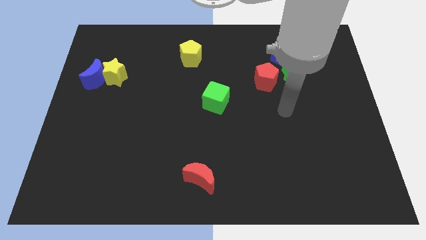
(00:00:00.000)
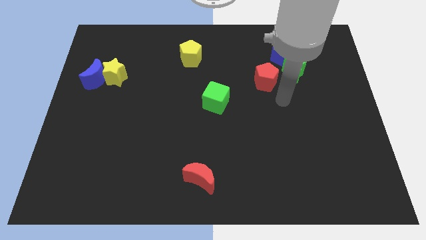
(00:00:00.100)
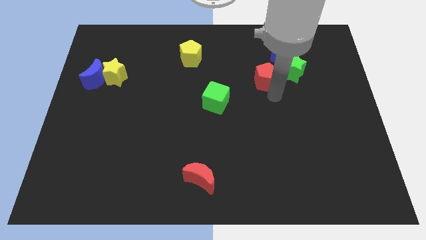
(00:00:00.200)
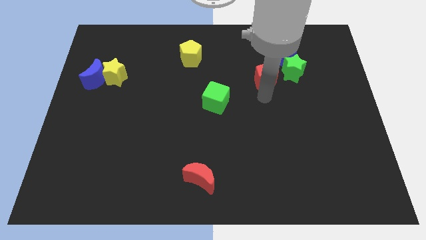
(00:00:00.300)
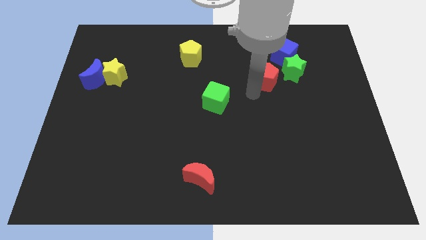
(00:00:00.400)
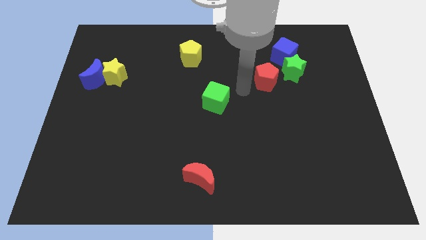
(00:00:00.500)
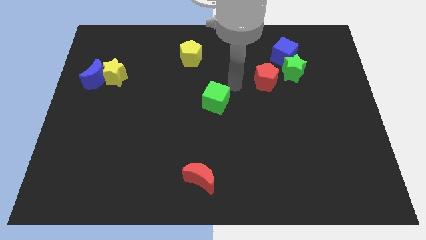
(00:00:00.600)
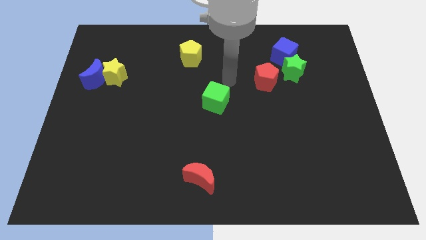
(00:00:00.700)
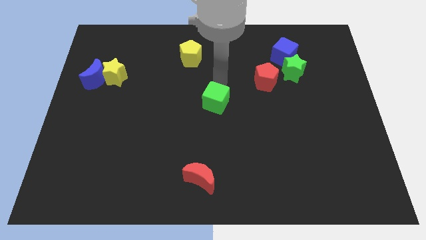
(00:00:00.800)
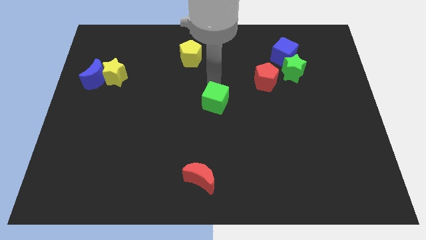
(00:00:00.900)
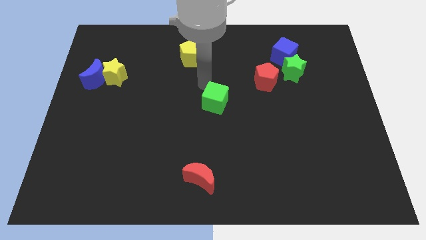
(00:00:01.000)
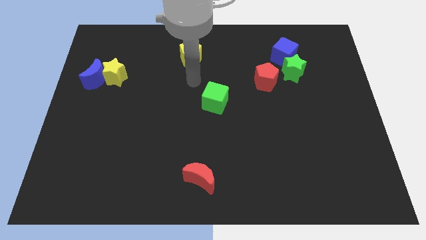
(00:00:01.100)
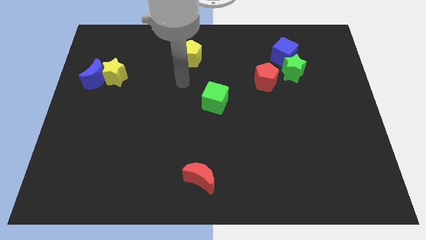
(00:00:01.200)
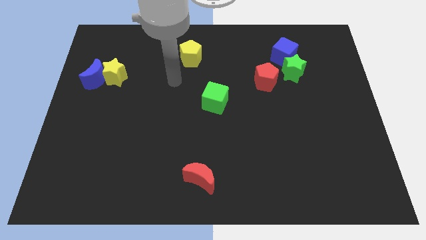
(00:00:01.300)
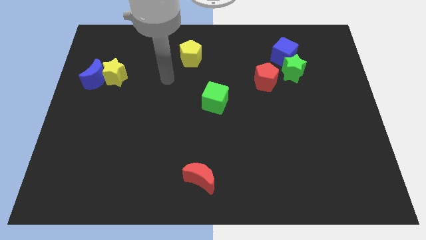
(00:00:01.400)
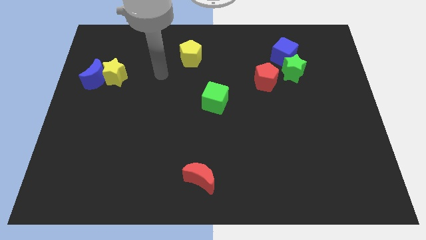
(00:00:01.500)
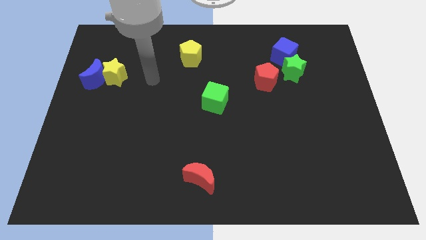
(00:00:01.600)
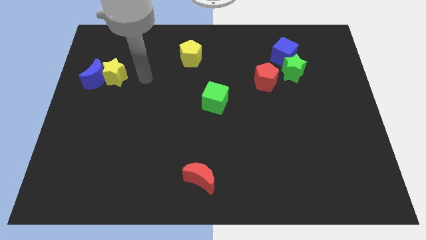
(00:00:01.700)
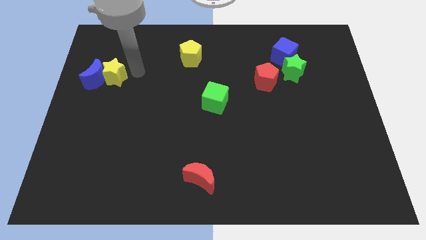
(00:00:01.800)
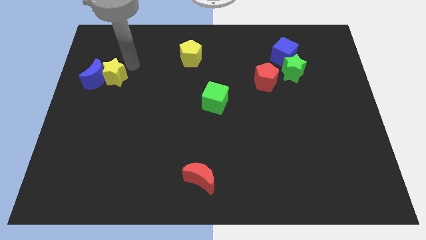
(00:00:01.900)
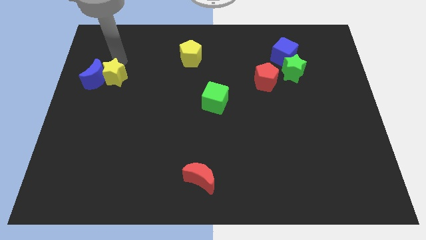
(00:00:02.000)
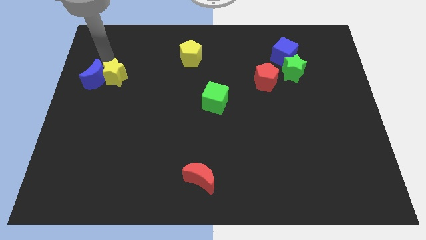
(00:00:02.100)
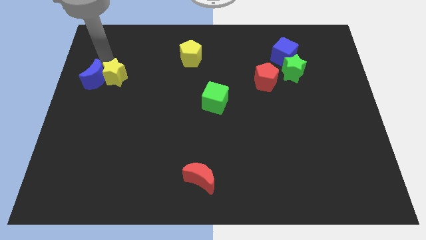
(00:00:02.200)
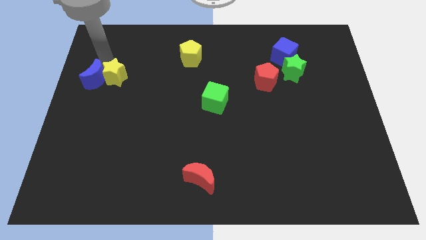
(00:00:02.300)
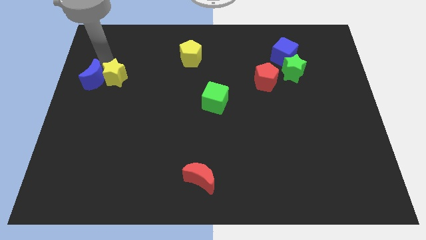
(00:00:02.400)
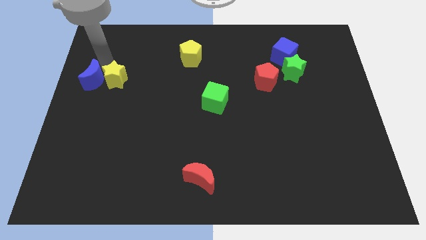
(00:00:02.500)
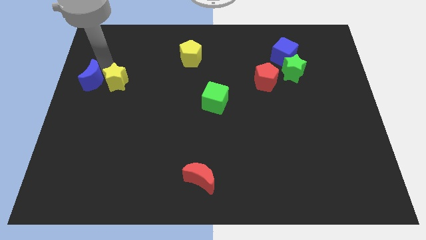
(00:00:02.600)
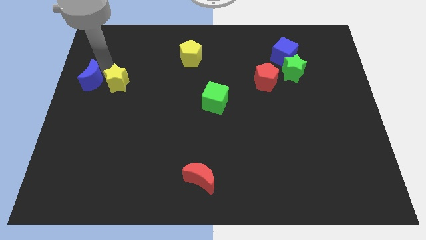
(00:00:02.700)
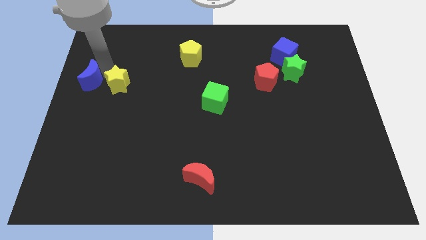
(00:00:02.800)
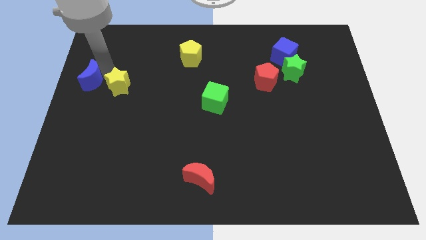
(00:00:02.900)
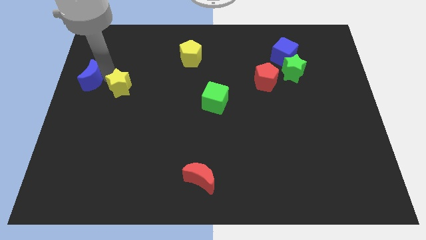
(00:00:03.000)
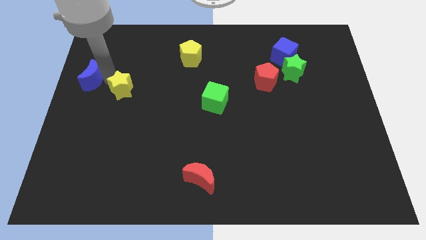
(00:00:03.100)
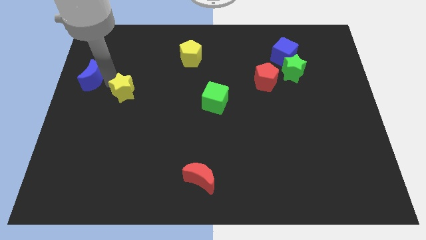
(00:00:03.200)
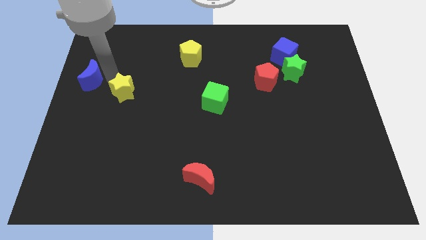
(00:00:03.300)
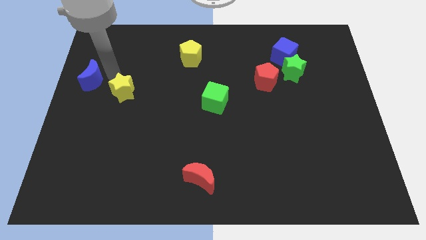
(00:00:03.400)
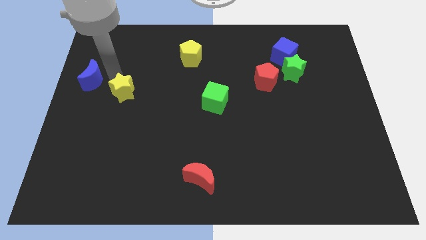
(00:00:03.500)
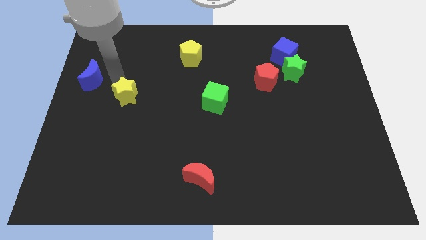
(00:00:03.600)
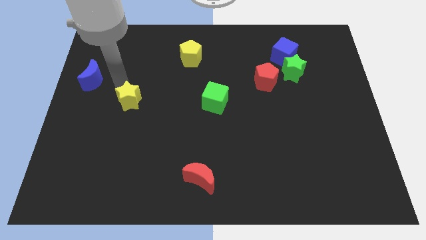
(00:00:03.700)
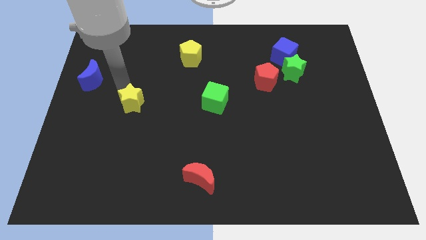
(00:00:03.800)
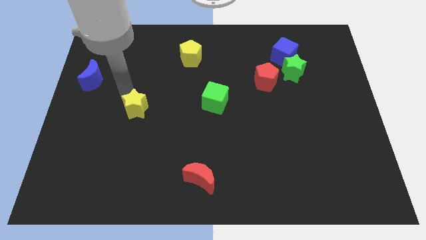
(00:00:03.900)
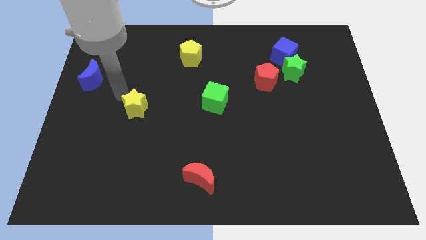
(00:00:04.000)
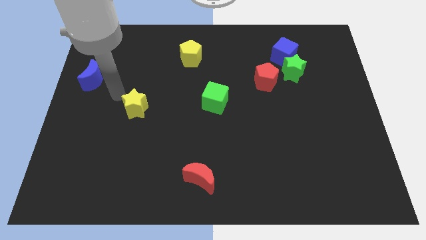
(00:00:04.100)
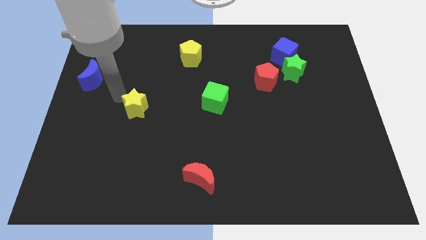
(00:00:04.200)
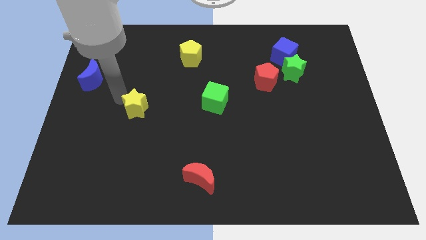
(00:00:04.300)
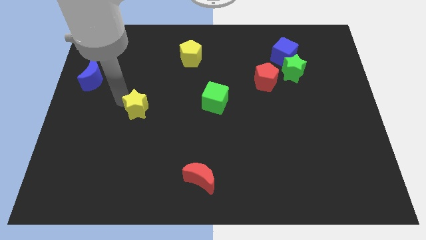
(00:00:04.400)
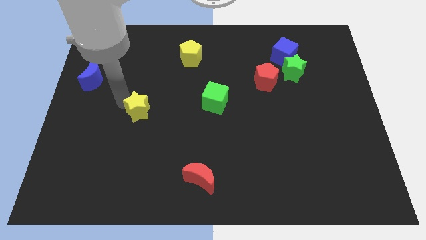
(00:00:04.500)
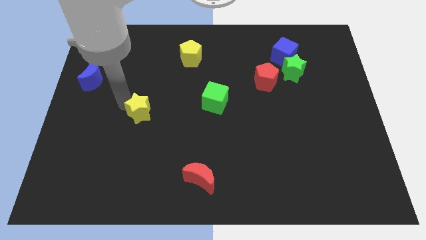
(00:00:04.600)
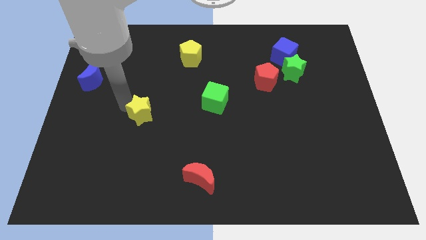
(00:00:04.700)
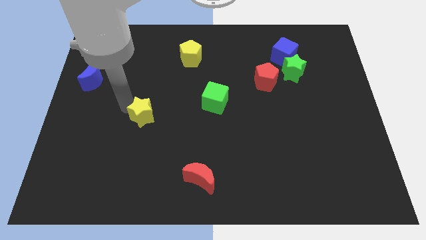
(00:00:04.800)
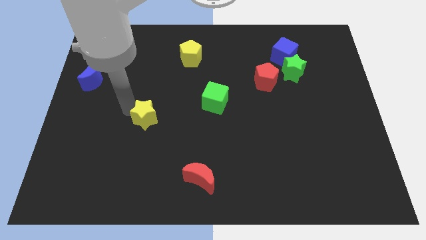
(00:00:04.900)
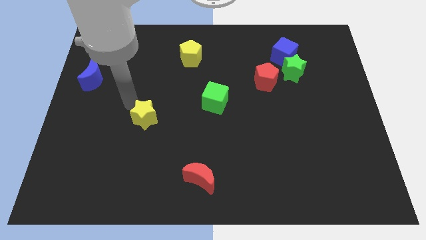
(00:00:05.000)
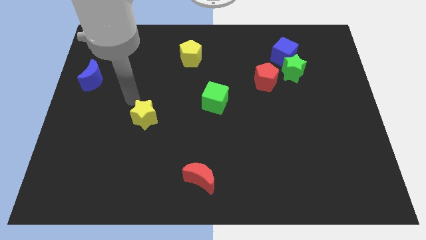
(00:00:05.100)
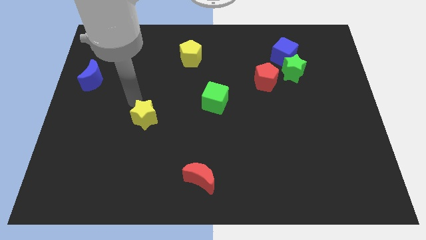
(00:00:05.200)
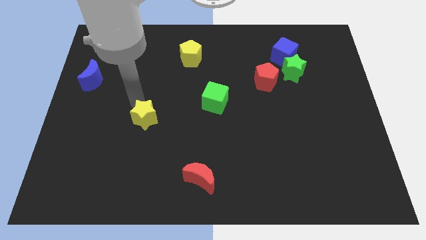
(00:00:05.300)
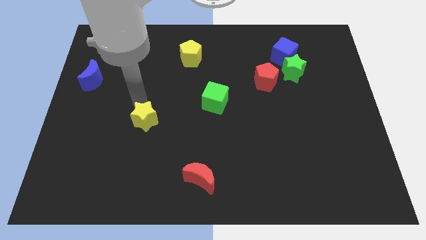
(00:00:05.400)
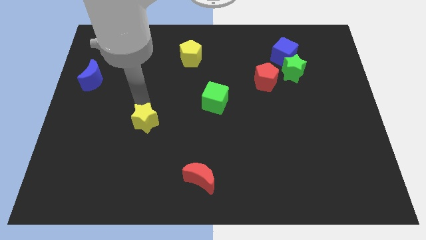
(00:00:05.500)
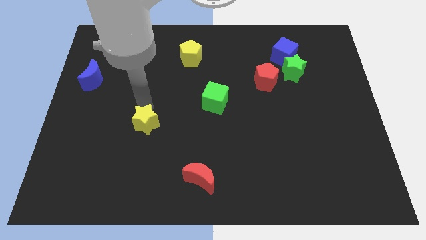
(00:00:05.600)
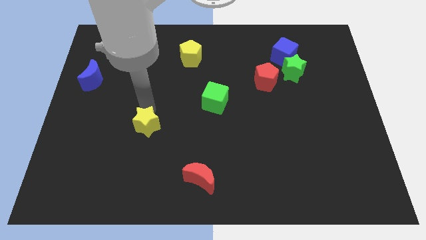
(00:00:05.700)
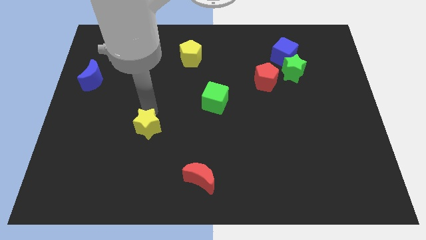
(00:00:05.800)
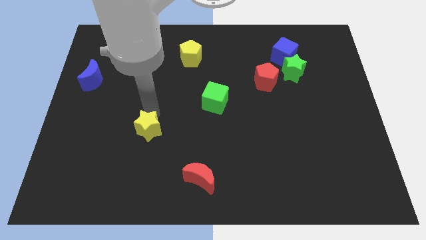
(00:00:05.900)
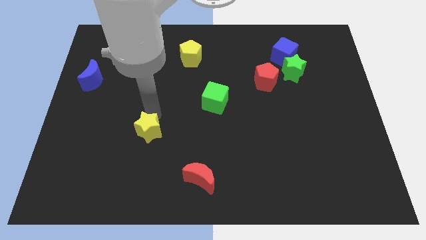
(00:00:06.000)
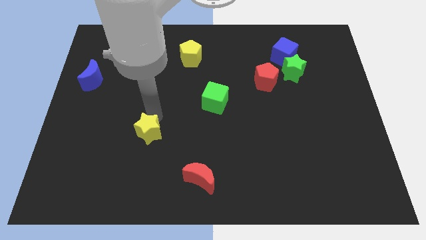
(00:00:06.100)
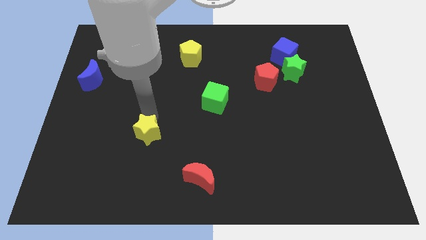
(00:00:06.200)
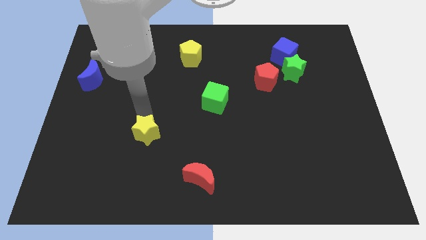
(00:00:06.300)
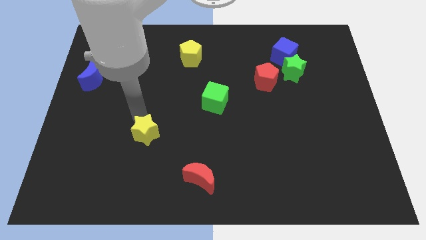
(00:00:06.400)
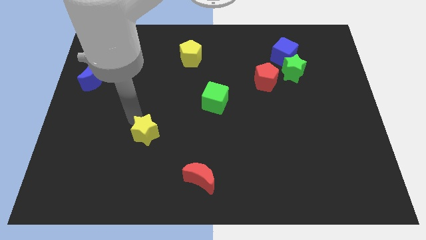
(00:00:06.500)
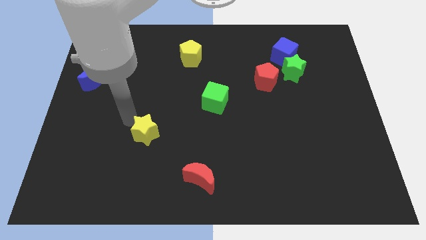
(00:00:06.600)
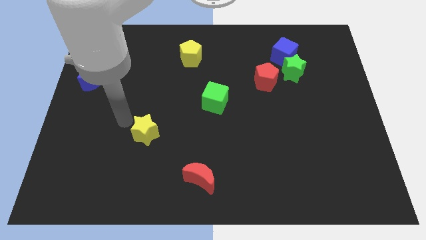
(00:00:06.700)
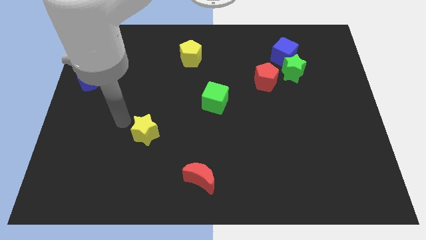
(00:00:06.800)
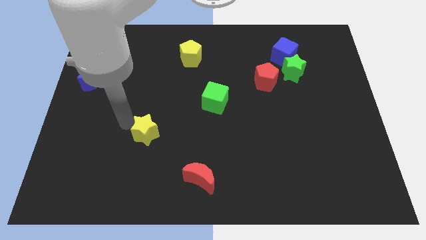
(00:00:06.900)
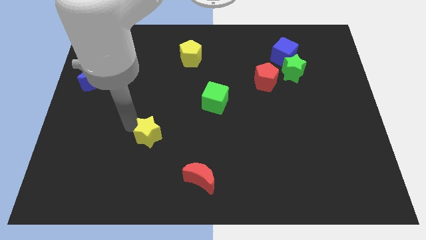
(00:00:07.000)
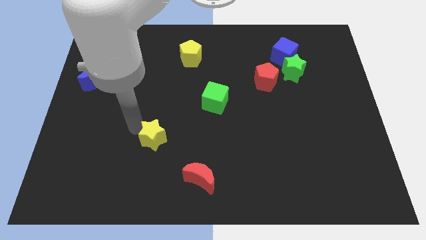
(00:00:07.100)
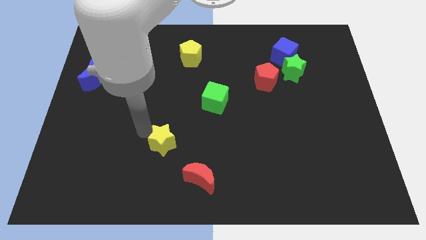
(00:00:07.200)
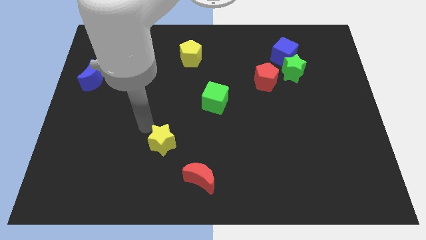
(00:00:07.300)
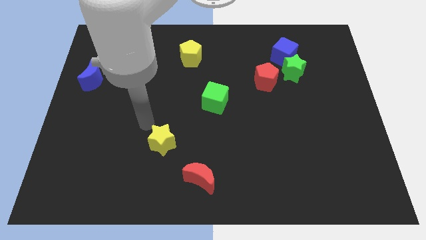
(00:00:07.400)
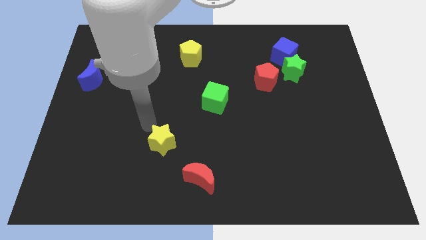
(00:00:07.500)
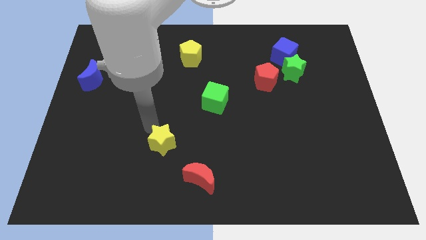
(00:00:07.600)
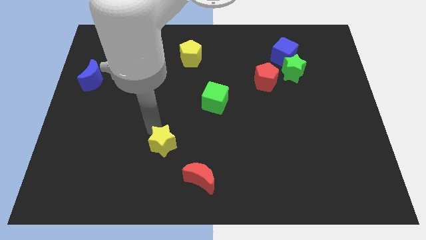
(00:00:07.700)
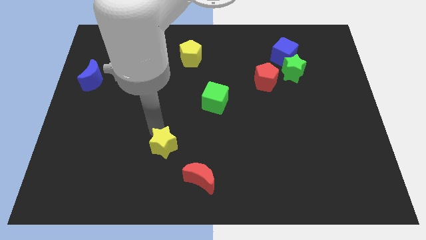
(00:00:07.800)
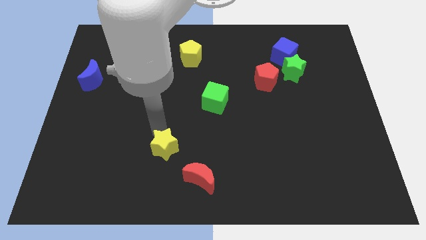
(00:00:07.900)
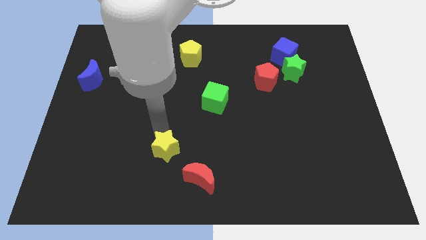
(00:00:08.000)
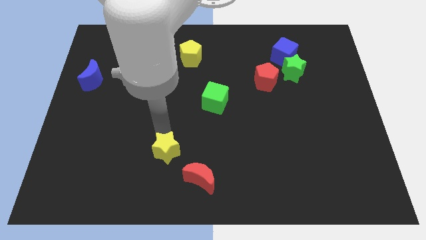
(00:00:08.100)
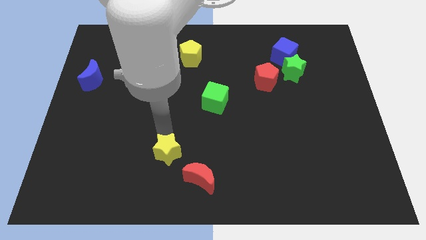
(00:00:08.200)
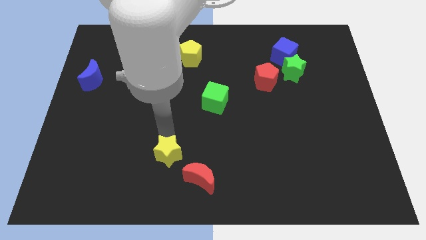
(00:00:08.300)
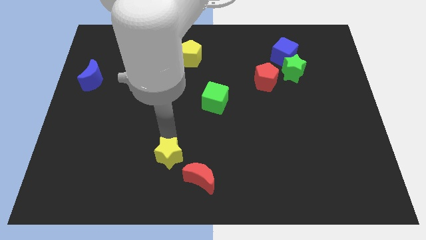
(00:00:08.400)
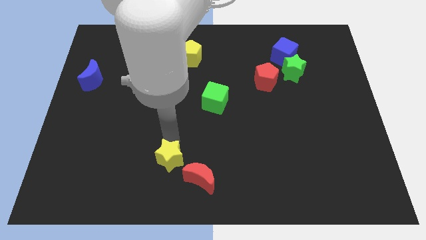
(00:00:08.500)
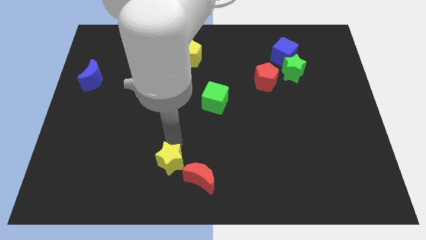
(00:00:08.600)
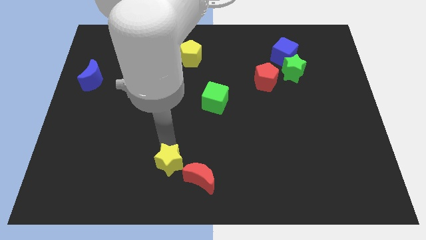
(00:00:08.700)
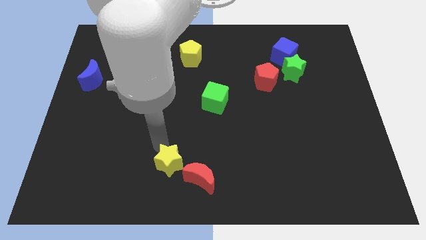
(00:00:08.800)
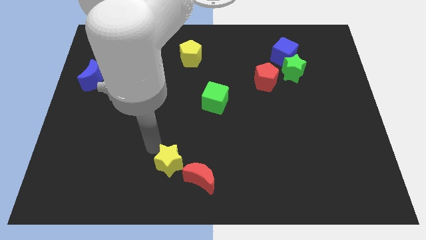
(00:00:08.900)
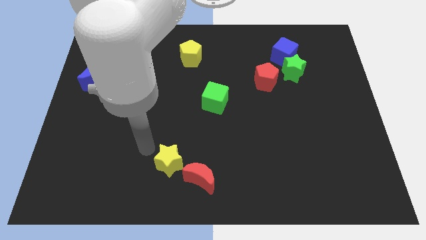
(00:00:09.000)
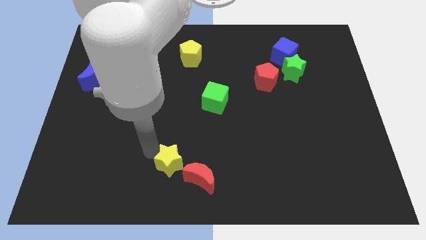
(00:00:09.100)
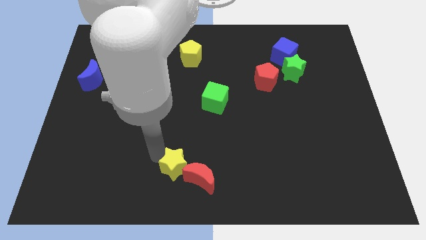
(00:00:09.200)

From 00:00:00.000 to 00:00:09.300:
push the yellow star towards the red moon
